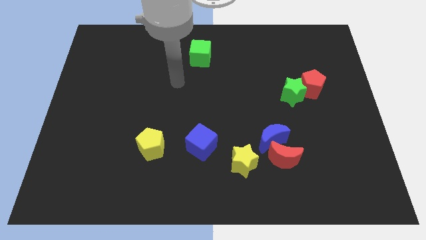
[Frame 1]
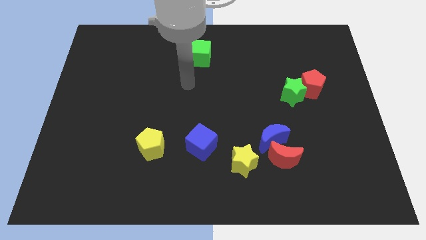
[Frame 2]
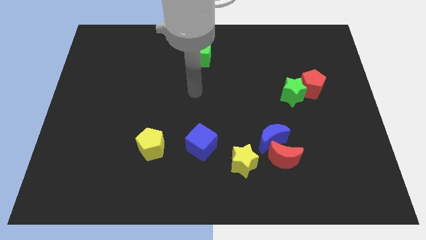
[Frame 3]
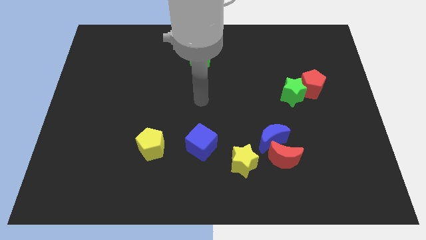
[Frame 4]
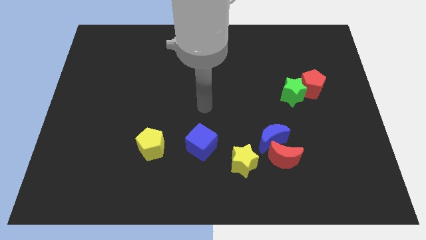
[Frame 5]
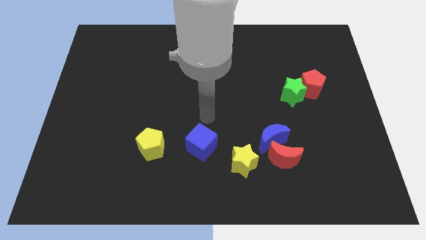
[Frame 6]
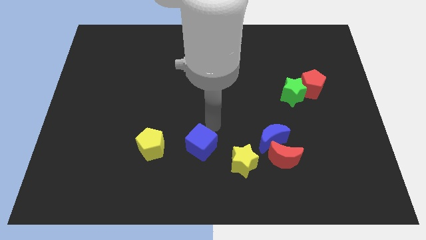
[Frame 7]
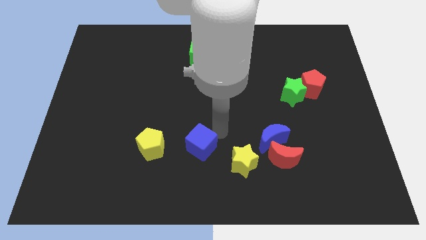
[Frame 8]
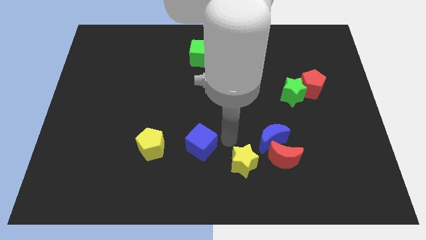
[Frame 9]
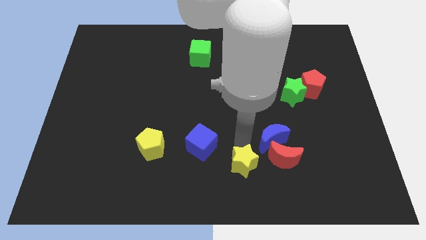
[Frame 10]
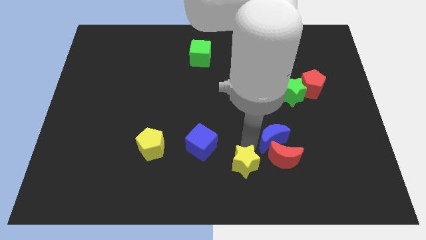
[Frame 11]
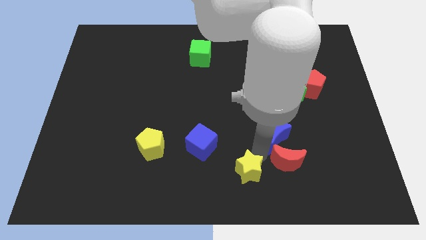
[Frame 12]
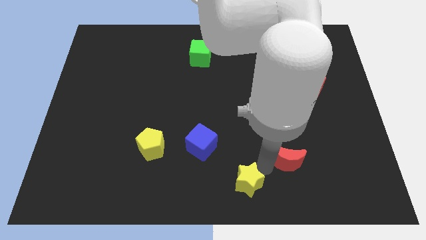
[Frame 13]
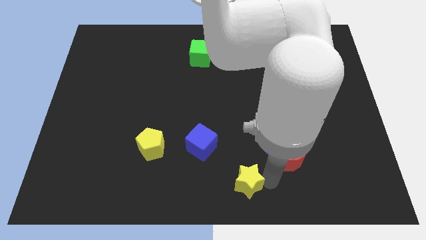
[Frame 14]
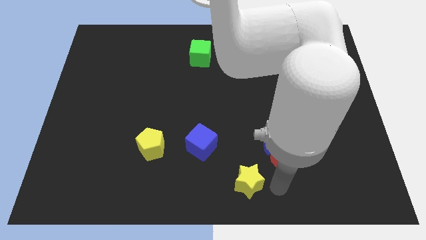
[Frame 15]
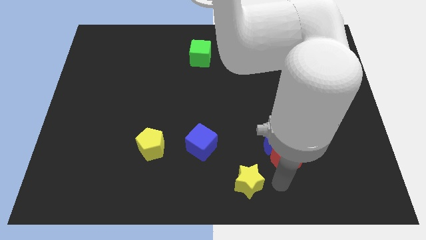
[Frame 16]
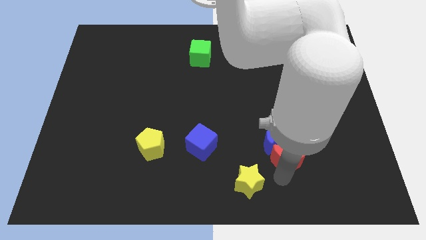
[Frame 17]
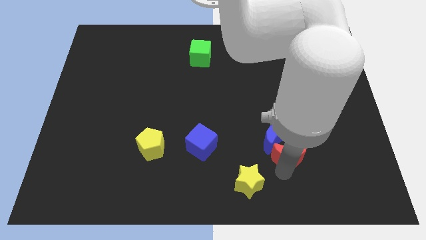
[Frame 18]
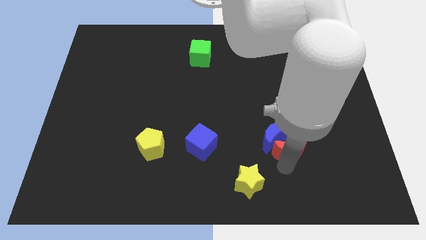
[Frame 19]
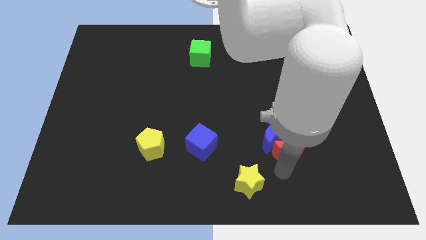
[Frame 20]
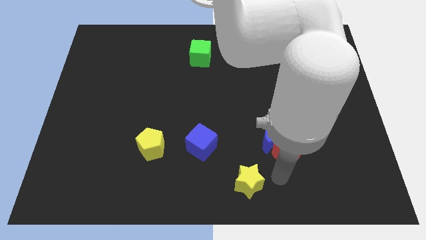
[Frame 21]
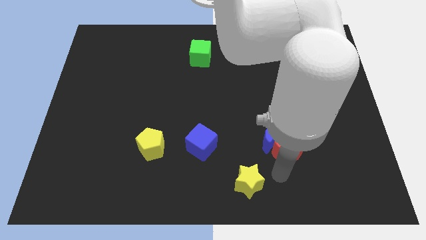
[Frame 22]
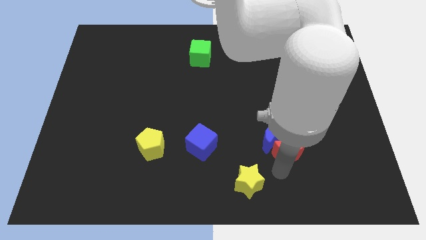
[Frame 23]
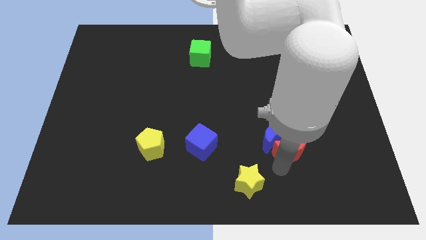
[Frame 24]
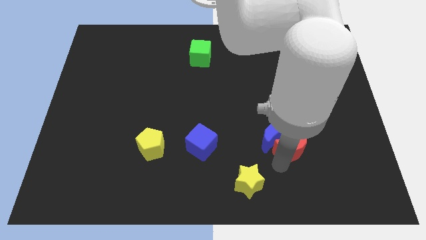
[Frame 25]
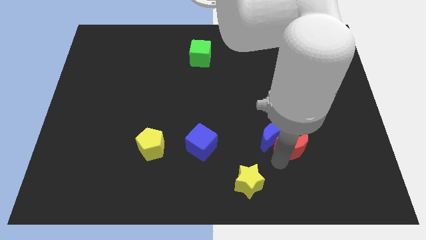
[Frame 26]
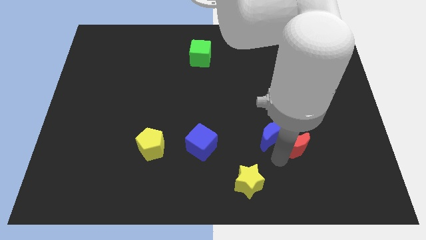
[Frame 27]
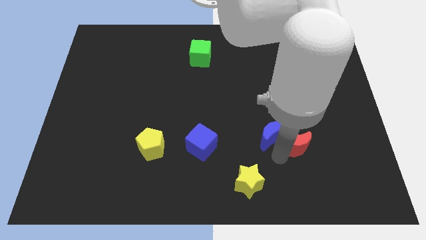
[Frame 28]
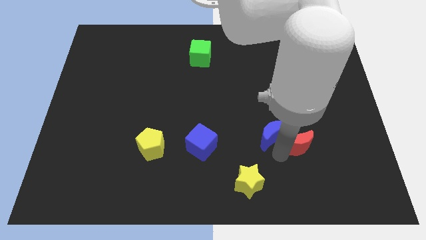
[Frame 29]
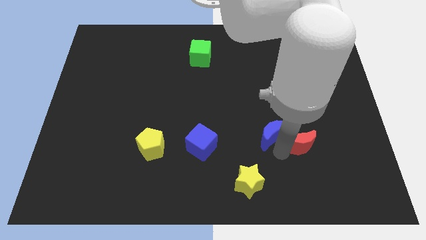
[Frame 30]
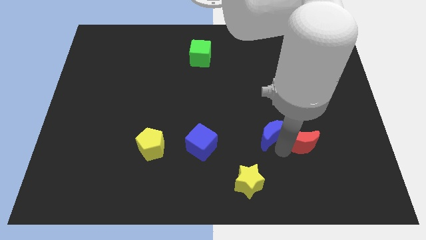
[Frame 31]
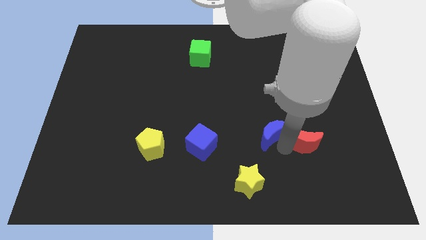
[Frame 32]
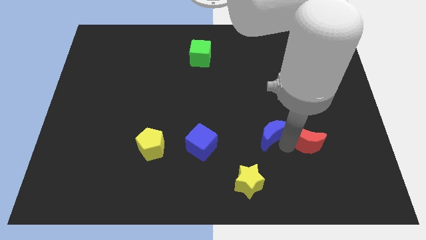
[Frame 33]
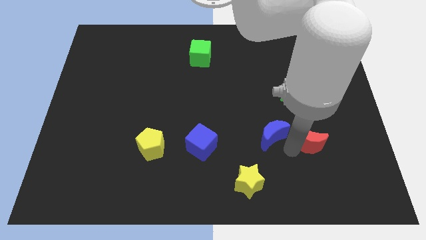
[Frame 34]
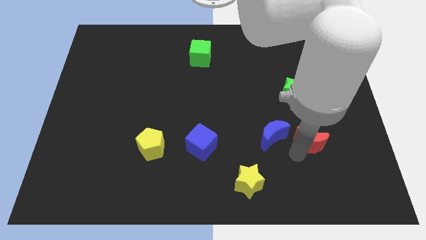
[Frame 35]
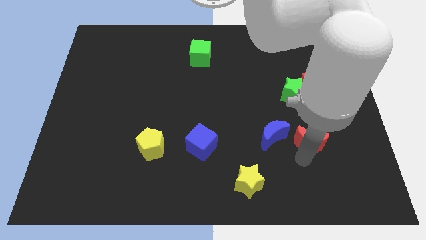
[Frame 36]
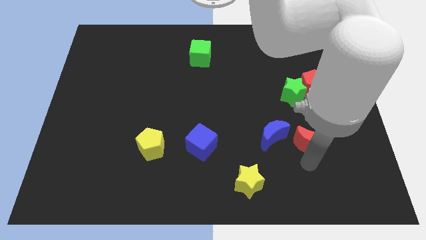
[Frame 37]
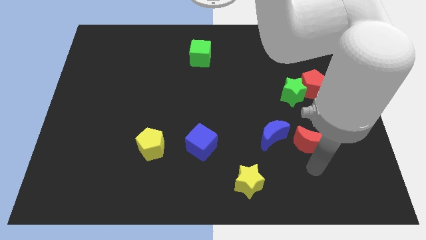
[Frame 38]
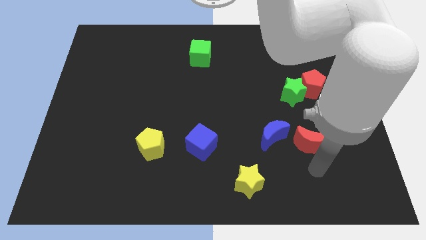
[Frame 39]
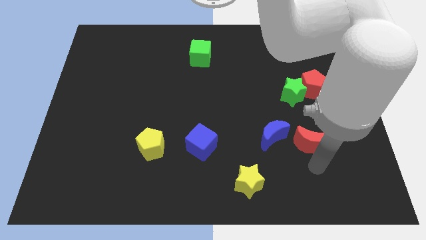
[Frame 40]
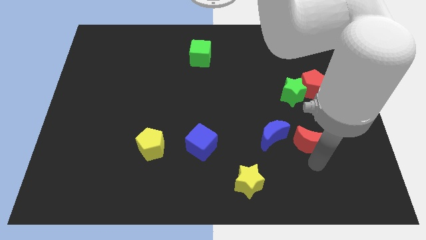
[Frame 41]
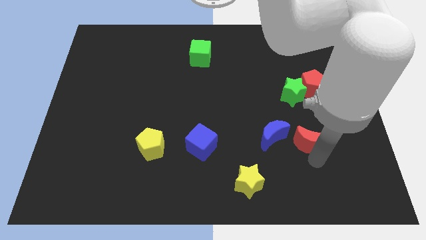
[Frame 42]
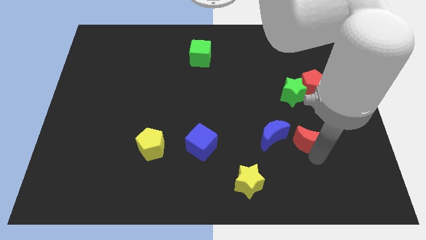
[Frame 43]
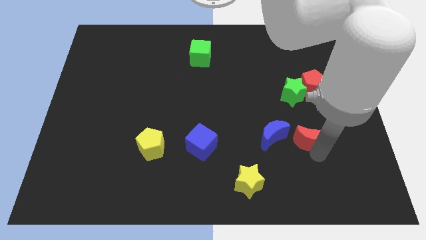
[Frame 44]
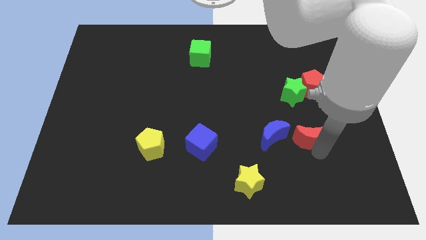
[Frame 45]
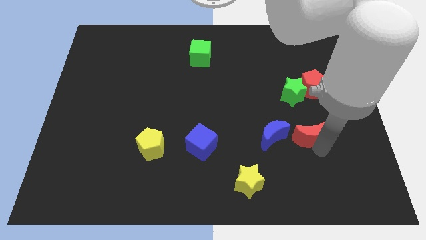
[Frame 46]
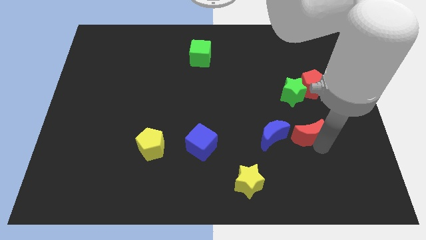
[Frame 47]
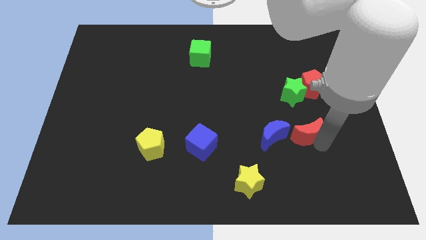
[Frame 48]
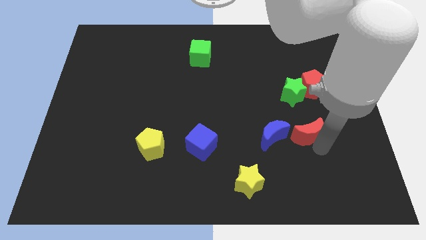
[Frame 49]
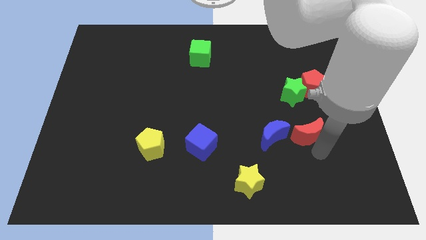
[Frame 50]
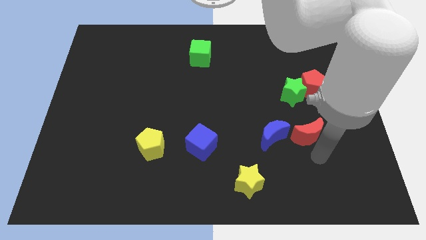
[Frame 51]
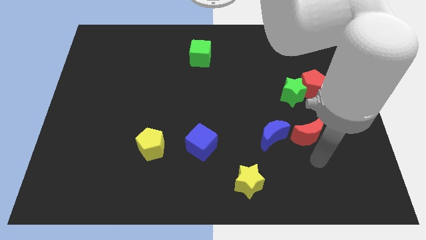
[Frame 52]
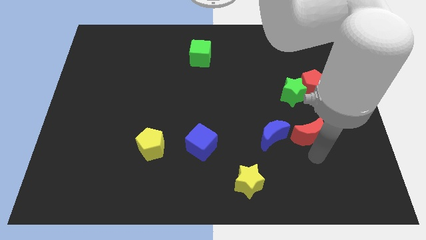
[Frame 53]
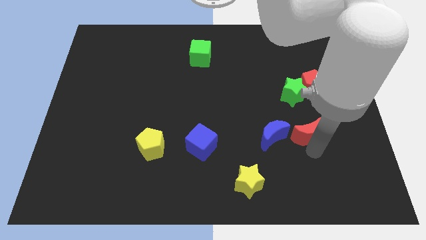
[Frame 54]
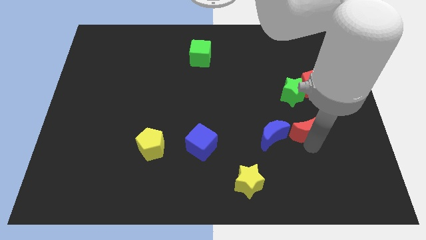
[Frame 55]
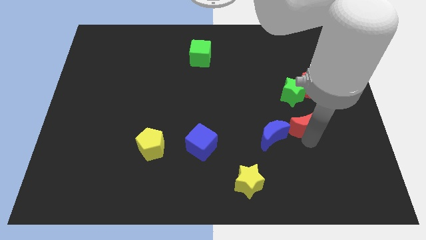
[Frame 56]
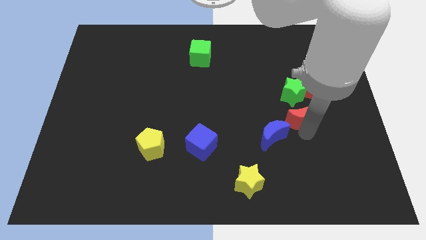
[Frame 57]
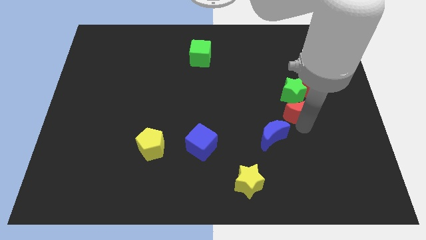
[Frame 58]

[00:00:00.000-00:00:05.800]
push the red moon close to the green star

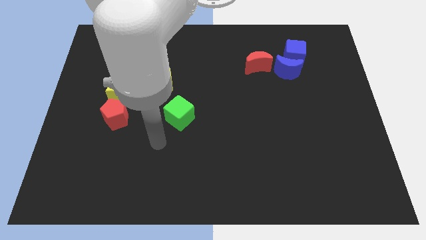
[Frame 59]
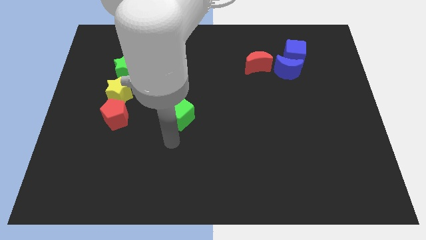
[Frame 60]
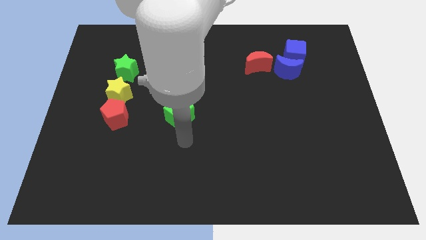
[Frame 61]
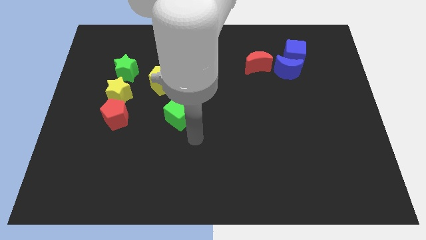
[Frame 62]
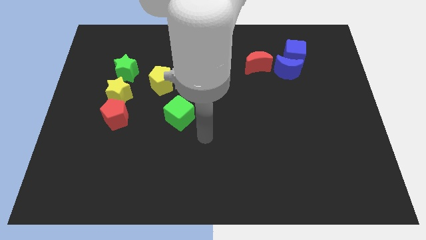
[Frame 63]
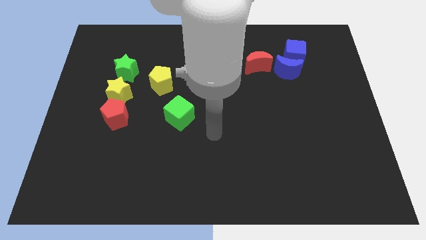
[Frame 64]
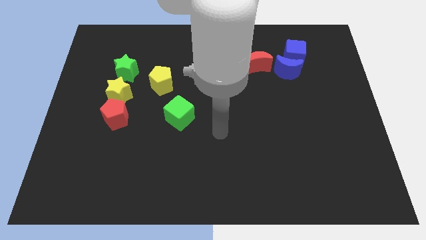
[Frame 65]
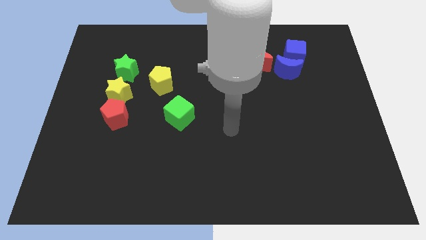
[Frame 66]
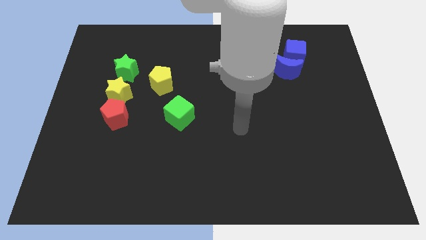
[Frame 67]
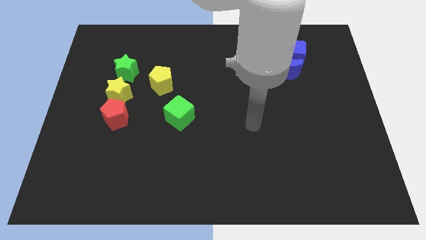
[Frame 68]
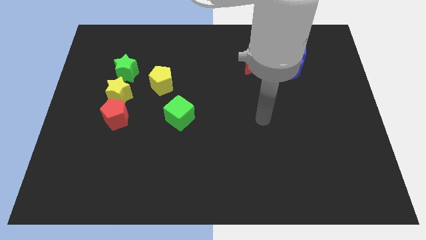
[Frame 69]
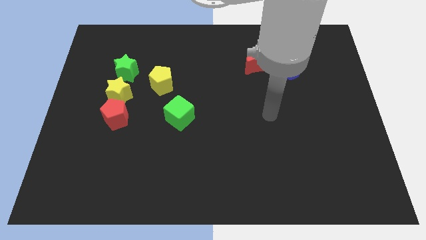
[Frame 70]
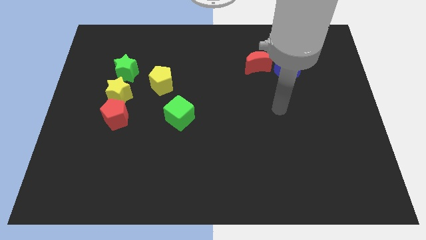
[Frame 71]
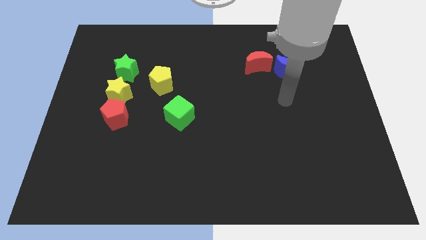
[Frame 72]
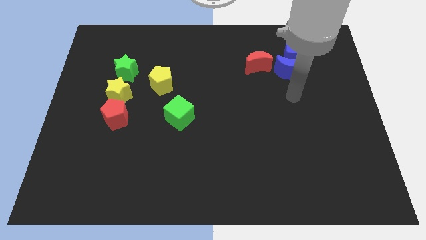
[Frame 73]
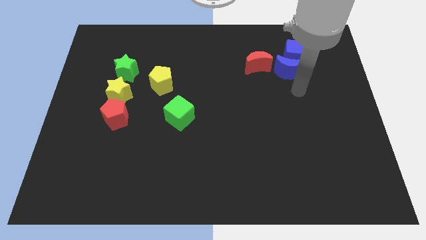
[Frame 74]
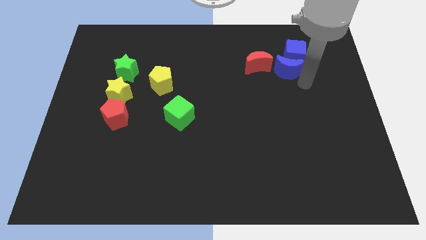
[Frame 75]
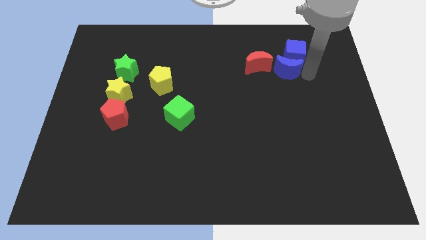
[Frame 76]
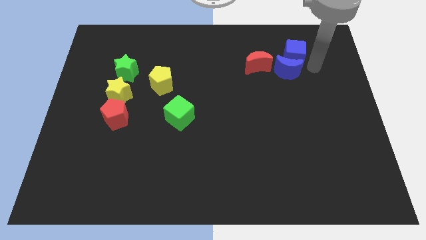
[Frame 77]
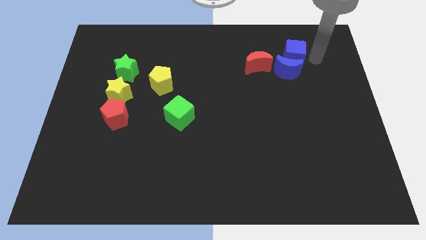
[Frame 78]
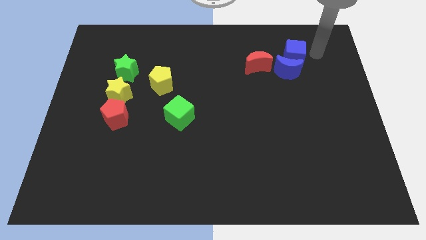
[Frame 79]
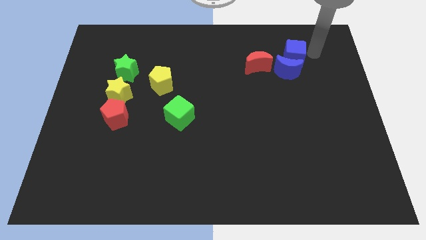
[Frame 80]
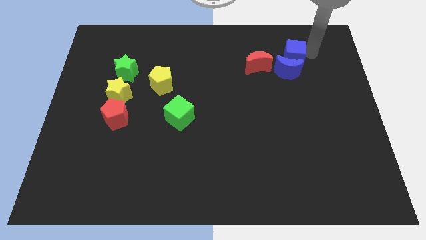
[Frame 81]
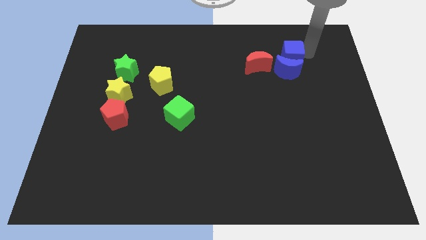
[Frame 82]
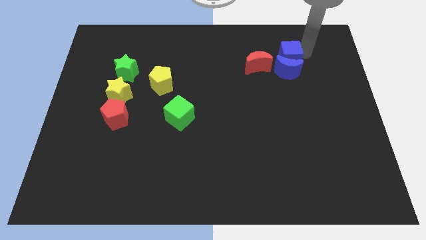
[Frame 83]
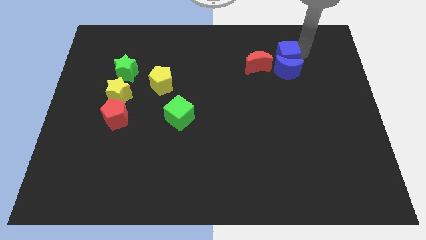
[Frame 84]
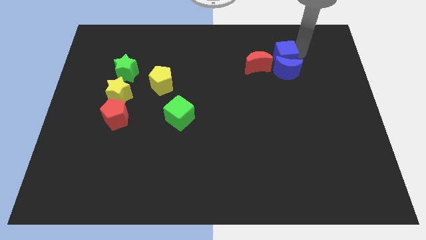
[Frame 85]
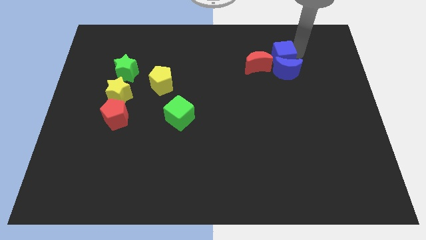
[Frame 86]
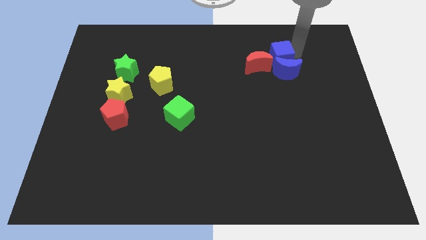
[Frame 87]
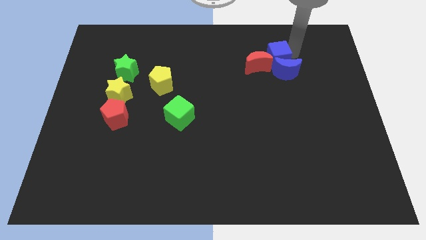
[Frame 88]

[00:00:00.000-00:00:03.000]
move the blue cube to the red moon
